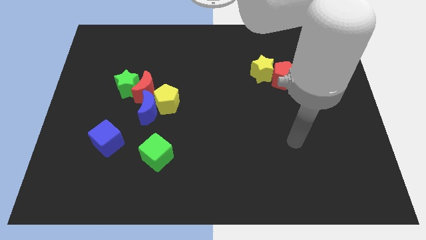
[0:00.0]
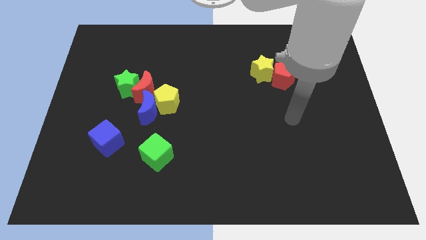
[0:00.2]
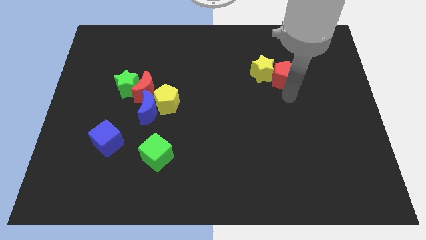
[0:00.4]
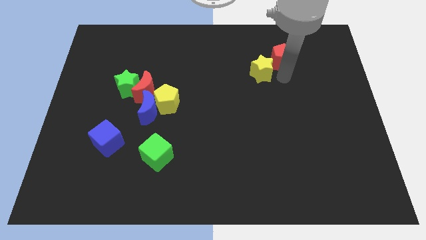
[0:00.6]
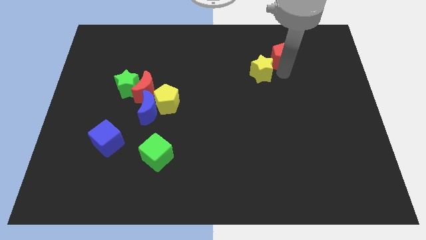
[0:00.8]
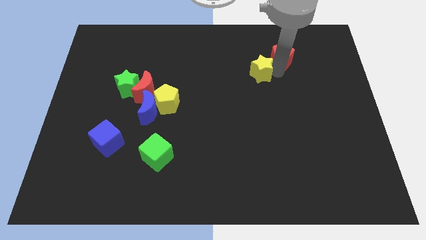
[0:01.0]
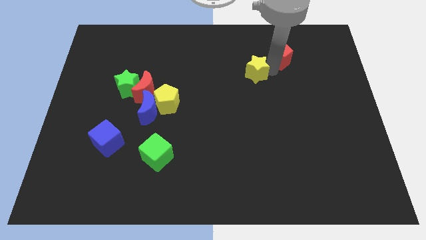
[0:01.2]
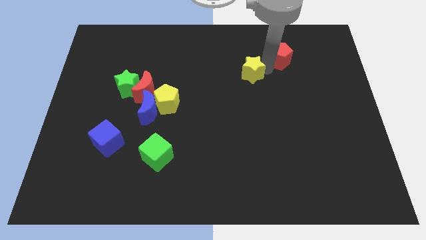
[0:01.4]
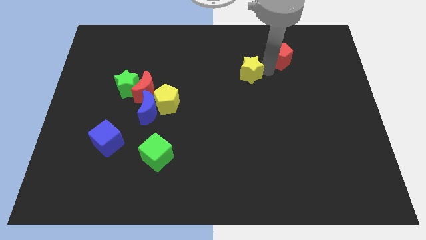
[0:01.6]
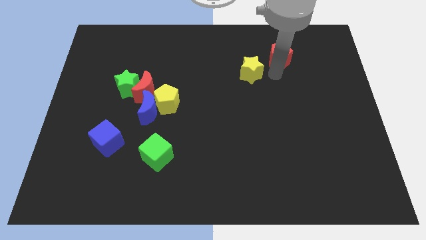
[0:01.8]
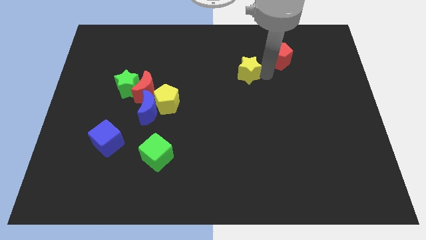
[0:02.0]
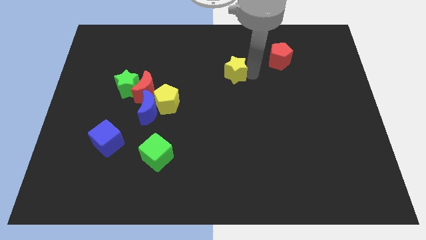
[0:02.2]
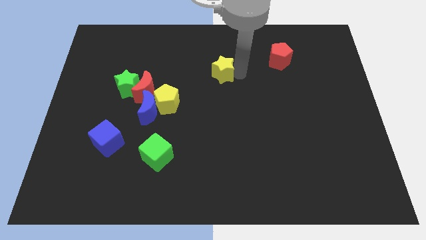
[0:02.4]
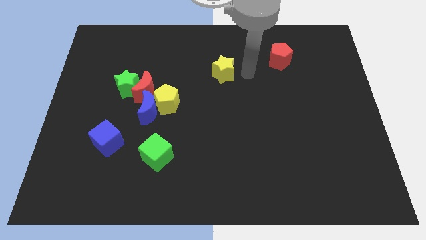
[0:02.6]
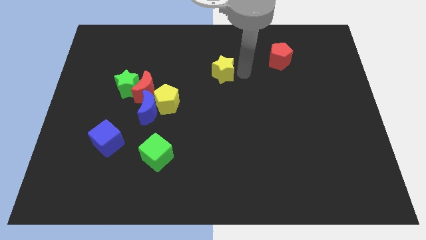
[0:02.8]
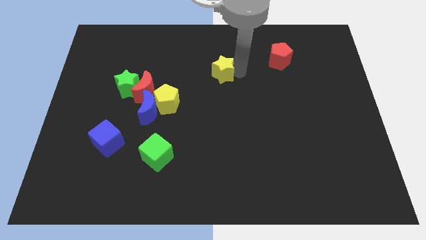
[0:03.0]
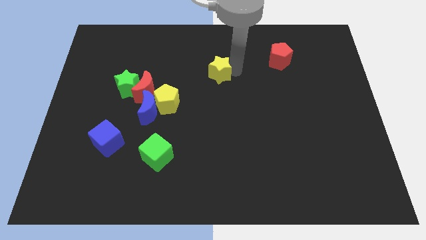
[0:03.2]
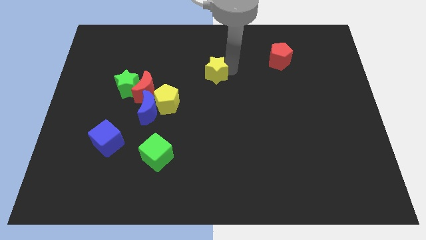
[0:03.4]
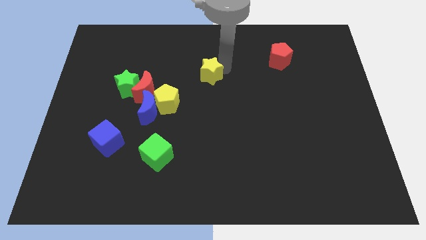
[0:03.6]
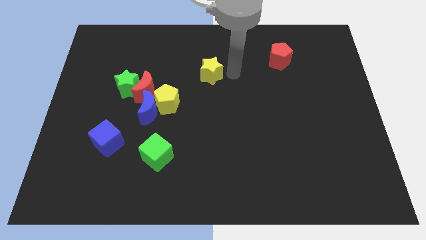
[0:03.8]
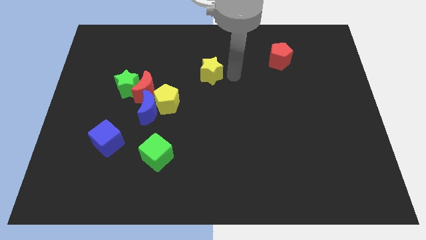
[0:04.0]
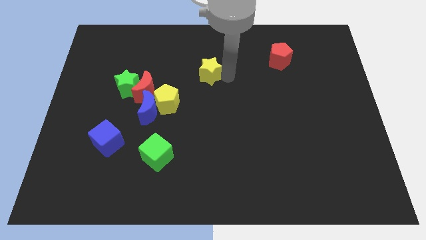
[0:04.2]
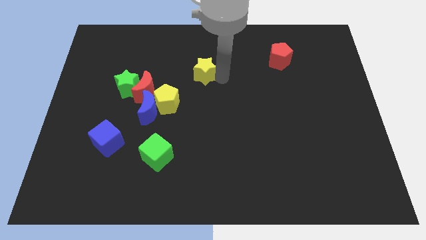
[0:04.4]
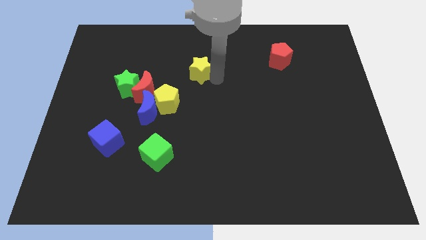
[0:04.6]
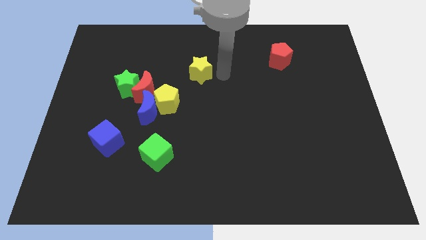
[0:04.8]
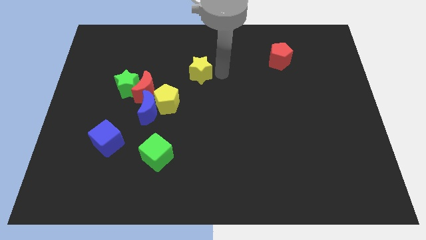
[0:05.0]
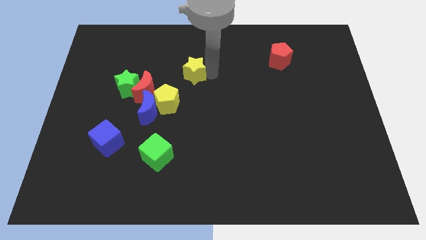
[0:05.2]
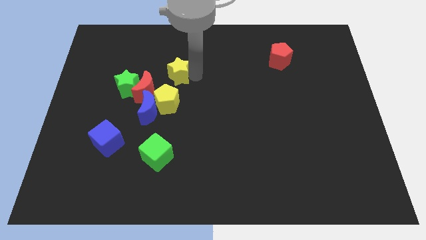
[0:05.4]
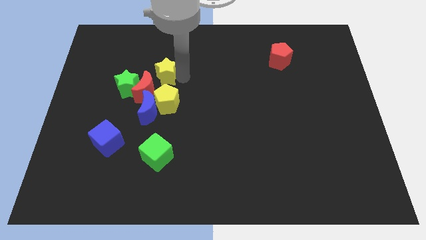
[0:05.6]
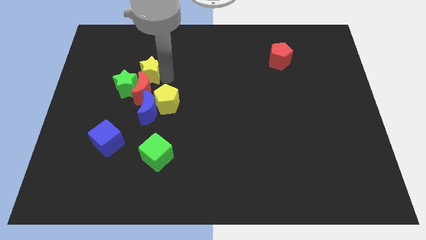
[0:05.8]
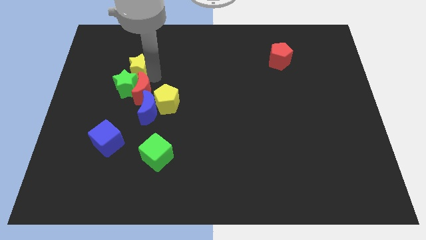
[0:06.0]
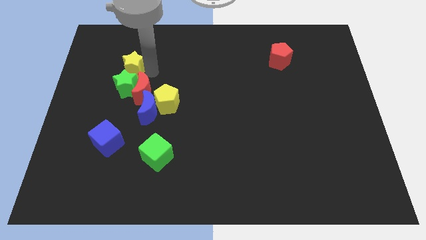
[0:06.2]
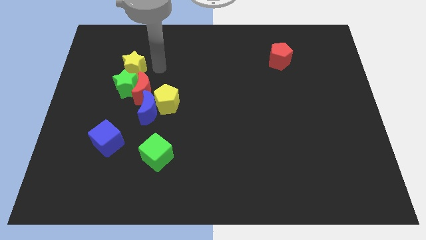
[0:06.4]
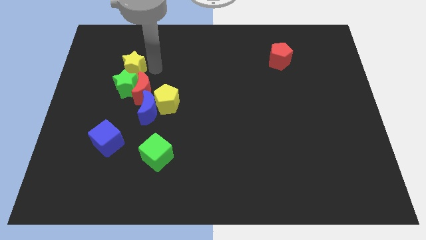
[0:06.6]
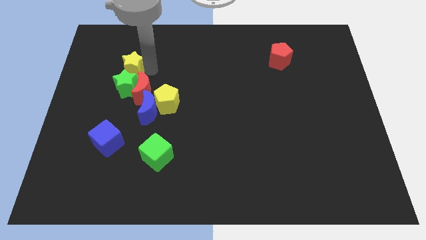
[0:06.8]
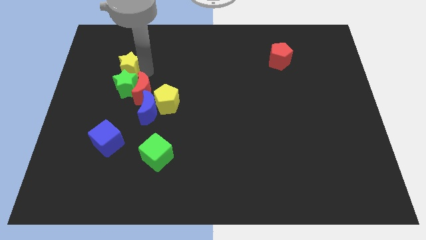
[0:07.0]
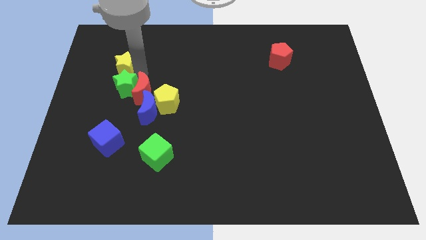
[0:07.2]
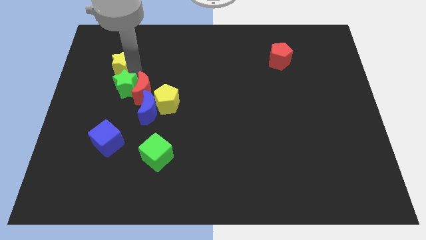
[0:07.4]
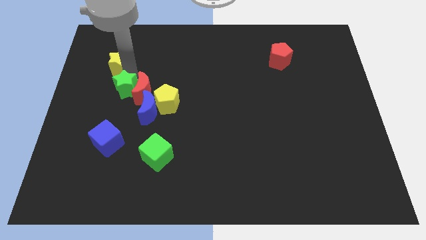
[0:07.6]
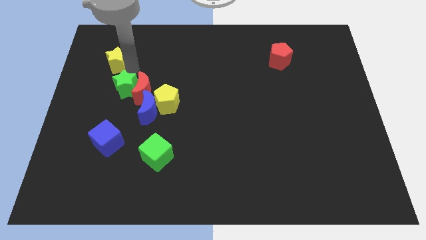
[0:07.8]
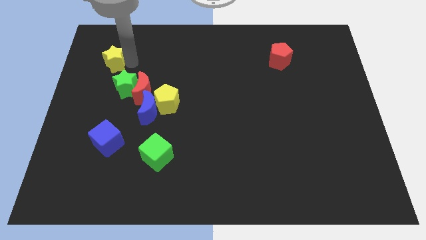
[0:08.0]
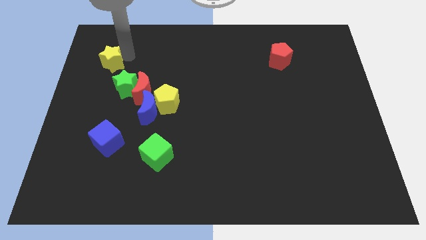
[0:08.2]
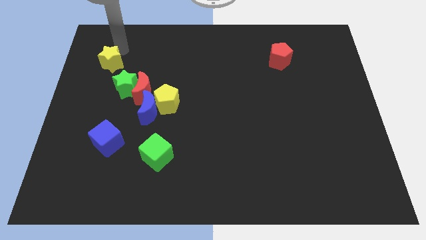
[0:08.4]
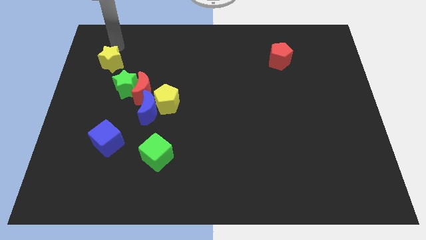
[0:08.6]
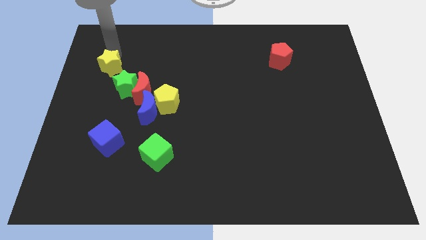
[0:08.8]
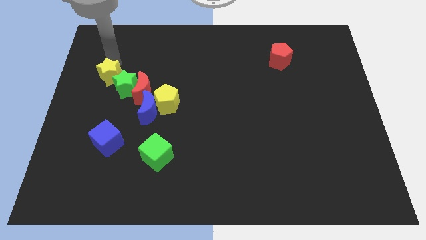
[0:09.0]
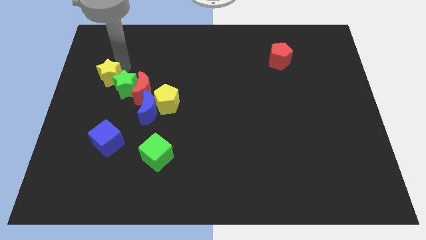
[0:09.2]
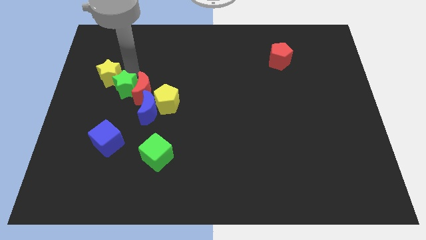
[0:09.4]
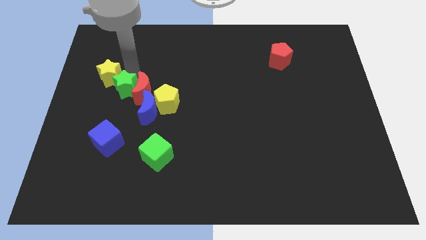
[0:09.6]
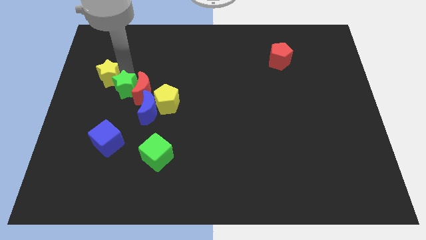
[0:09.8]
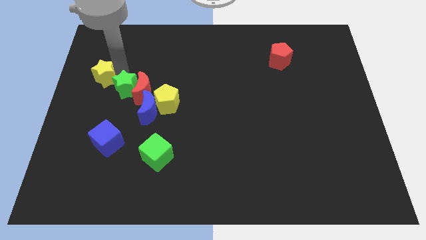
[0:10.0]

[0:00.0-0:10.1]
move the yellow star to the center left

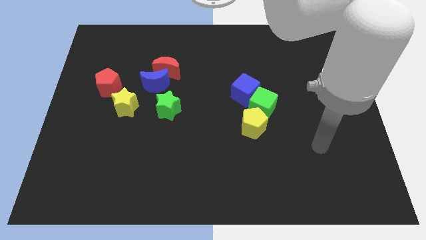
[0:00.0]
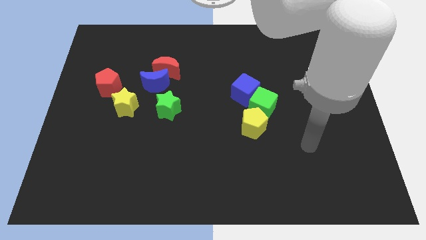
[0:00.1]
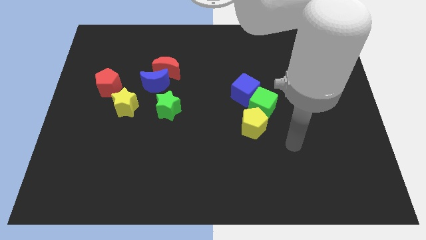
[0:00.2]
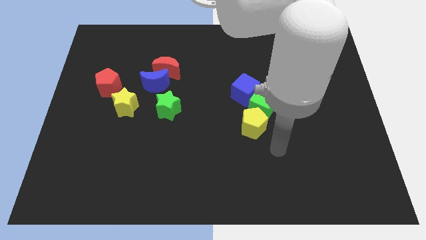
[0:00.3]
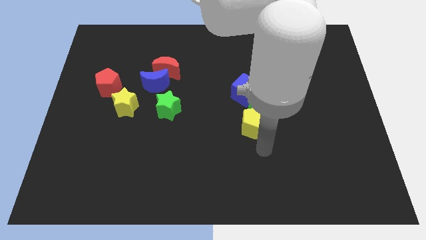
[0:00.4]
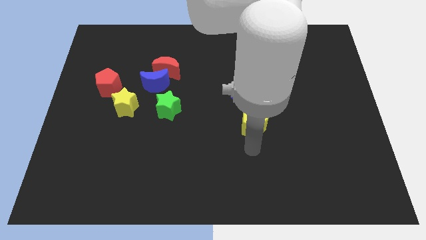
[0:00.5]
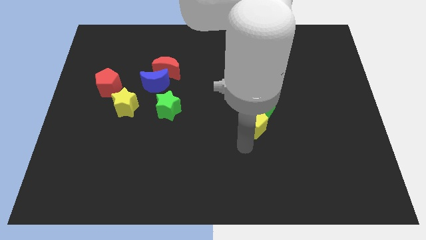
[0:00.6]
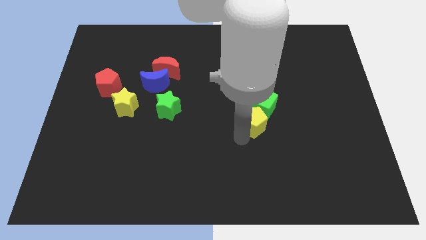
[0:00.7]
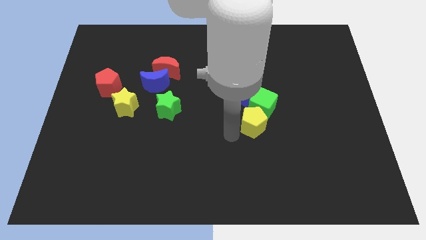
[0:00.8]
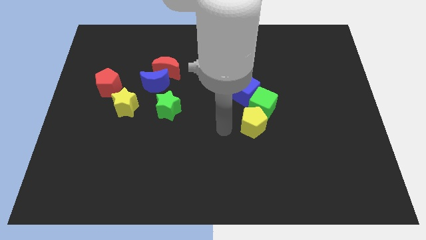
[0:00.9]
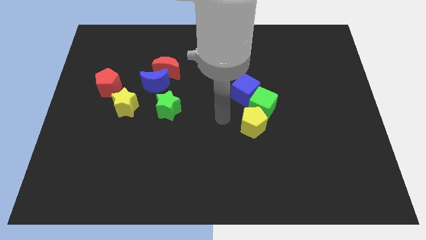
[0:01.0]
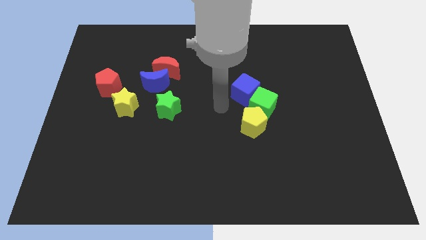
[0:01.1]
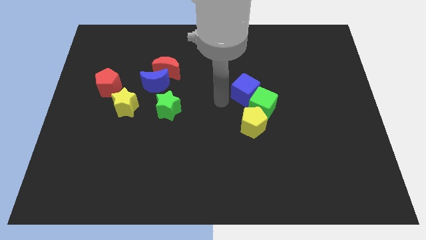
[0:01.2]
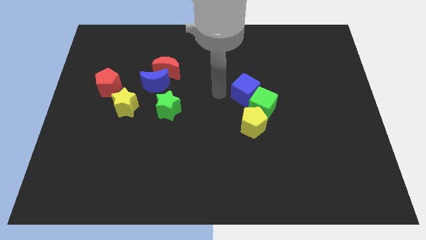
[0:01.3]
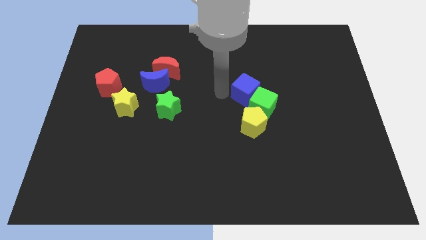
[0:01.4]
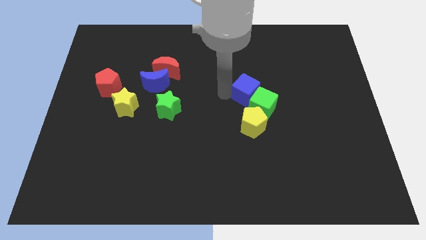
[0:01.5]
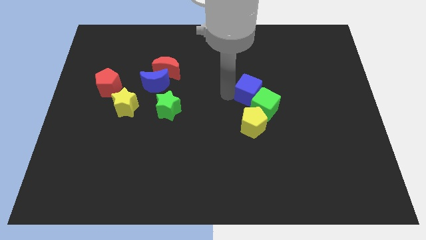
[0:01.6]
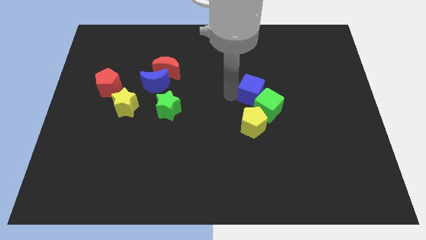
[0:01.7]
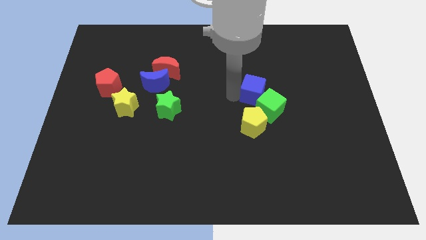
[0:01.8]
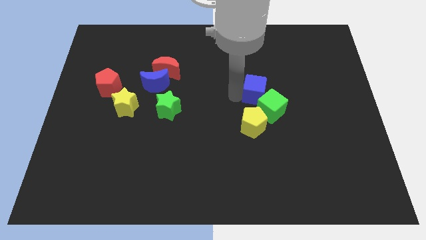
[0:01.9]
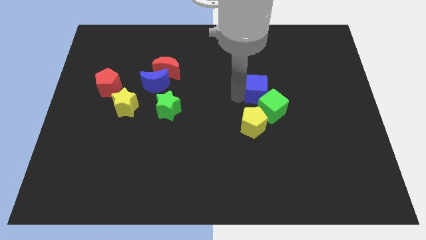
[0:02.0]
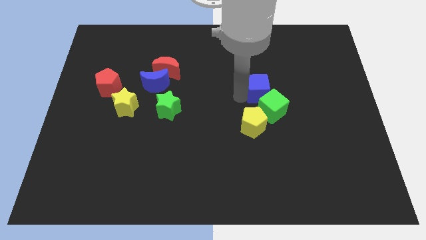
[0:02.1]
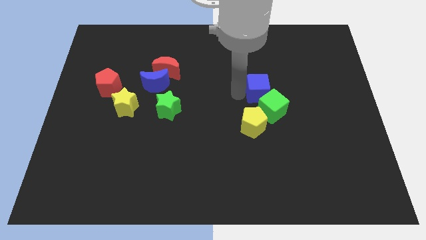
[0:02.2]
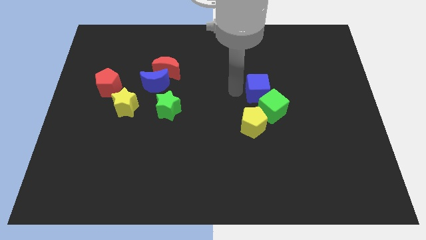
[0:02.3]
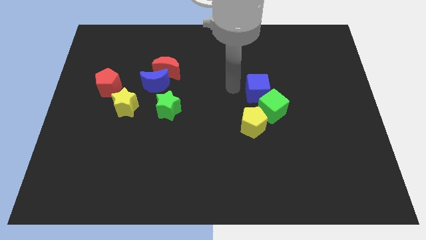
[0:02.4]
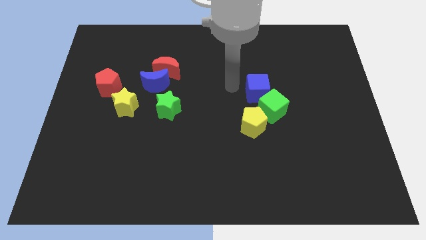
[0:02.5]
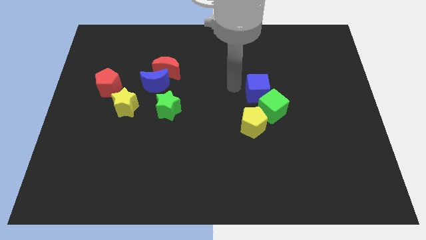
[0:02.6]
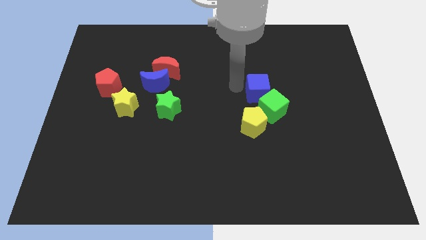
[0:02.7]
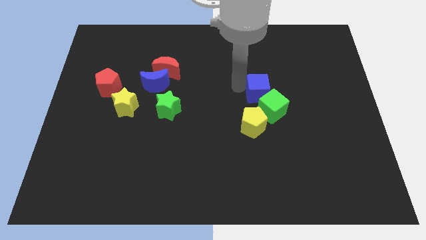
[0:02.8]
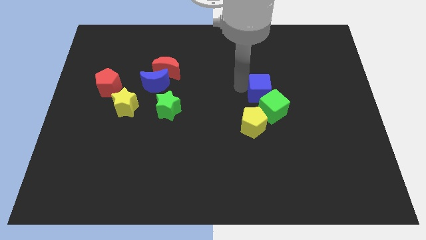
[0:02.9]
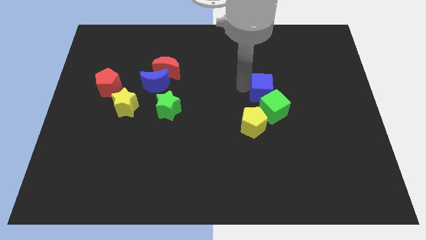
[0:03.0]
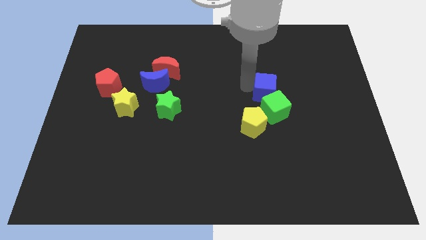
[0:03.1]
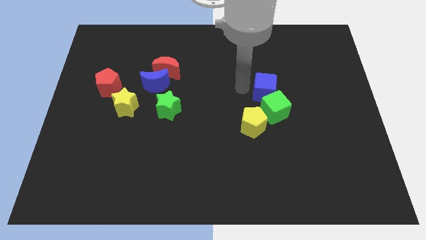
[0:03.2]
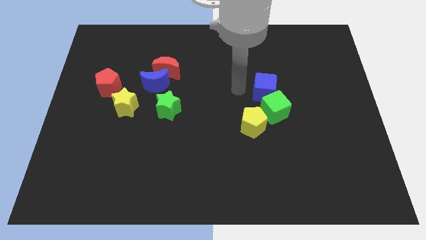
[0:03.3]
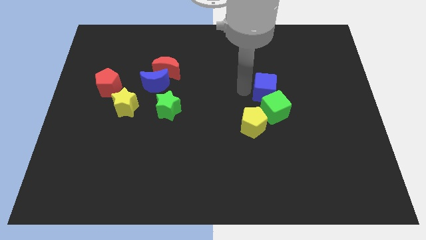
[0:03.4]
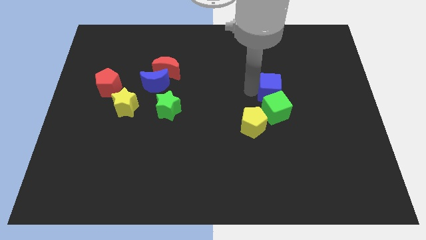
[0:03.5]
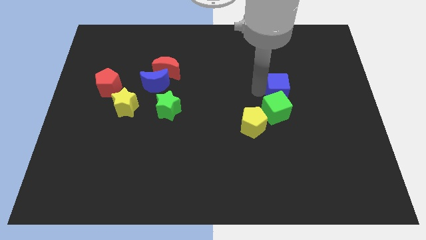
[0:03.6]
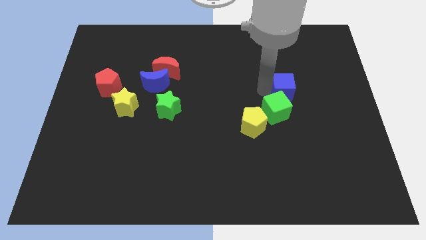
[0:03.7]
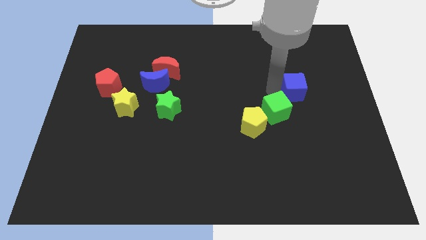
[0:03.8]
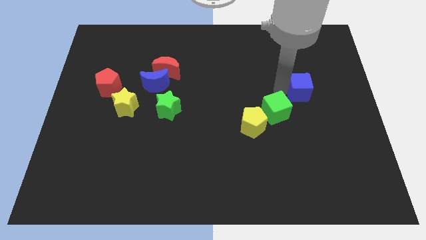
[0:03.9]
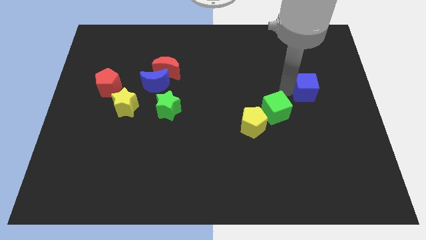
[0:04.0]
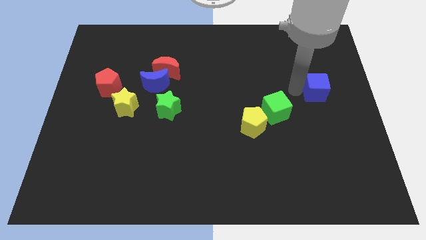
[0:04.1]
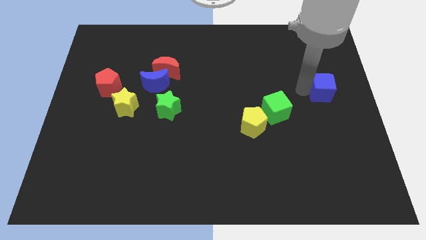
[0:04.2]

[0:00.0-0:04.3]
push the blue cube to the right side of the board
